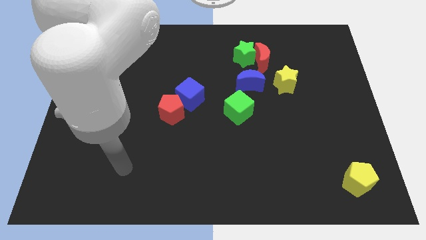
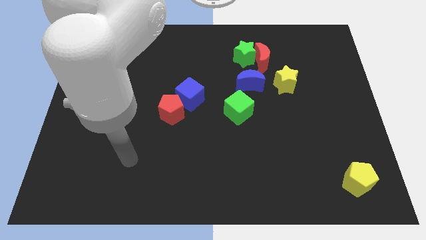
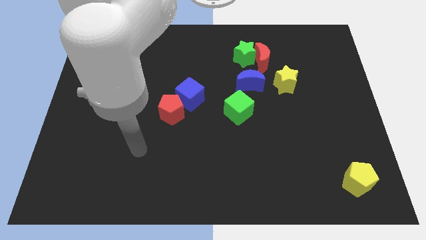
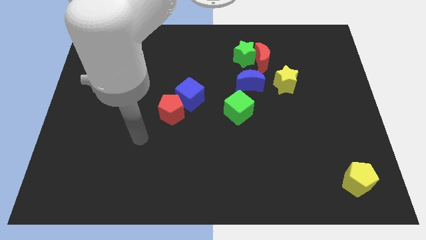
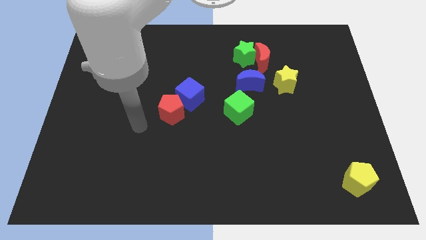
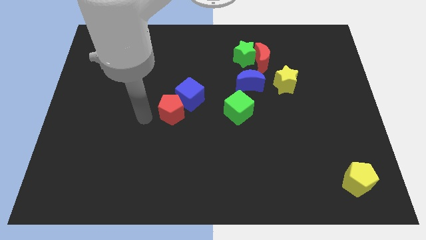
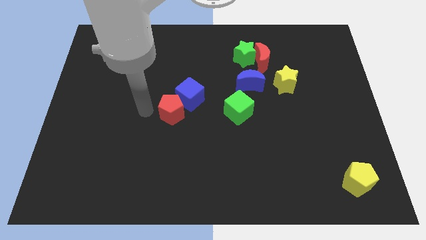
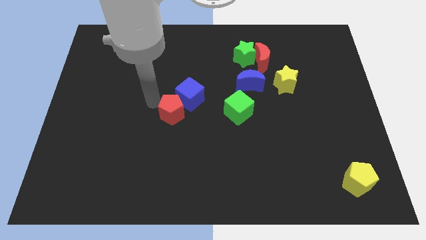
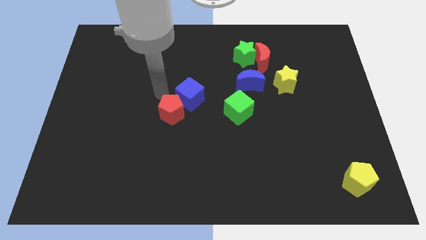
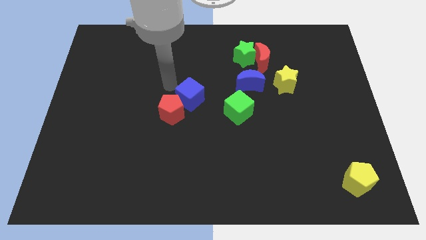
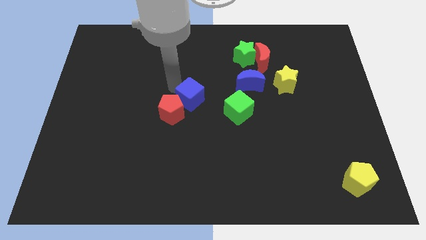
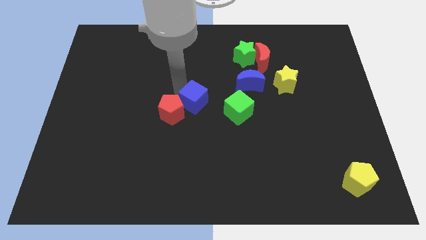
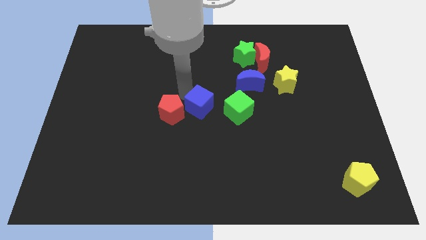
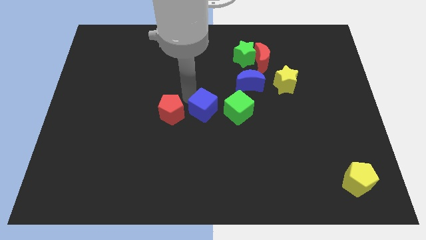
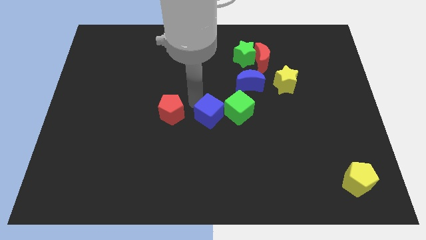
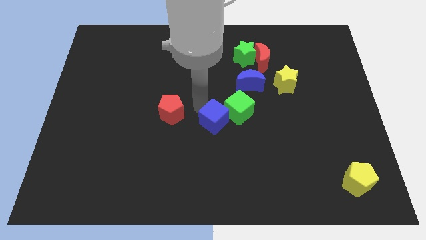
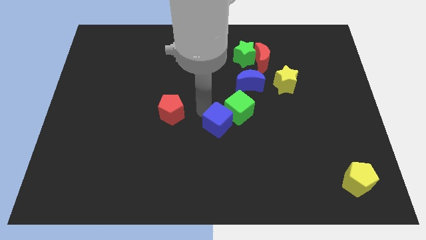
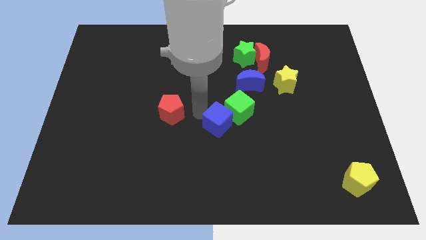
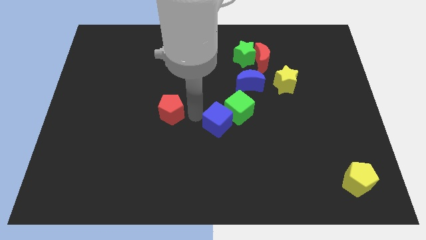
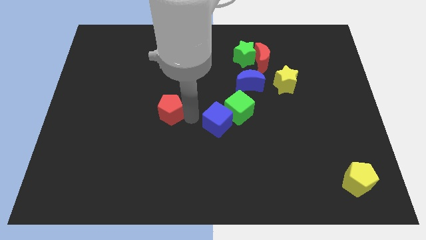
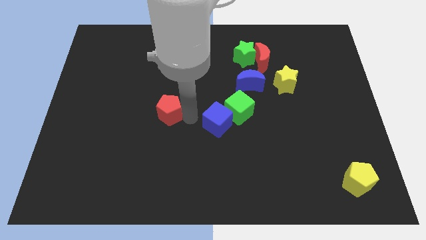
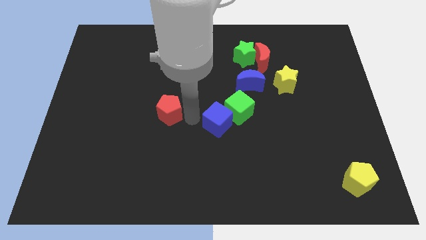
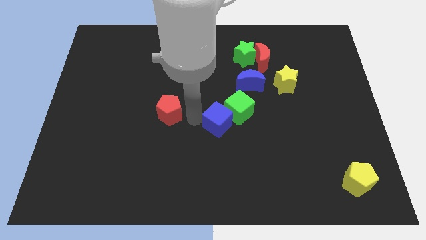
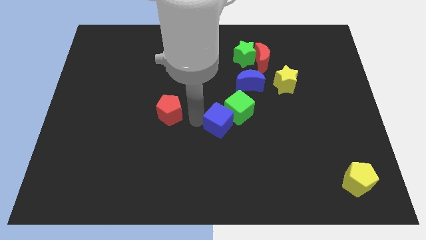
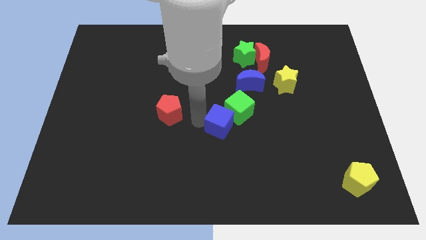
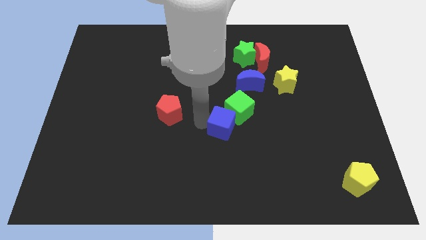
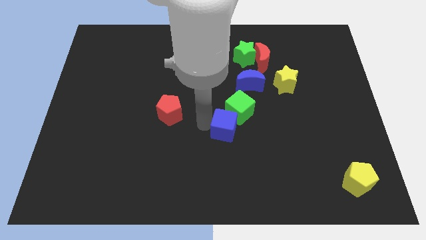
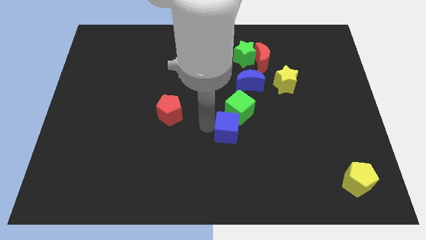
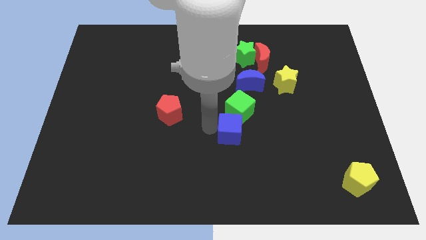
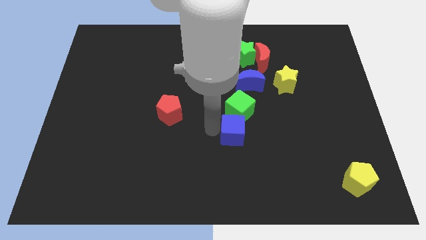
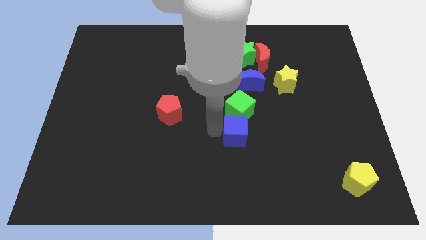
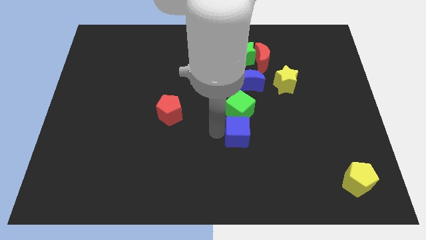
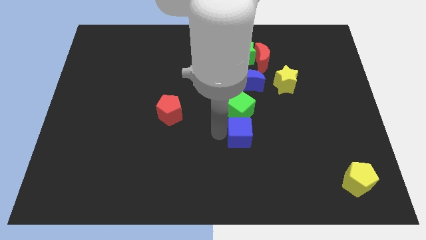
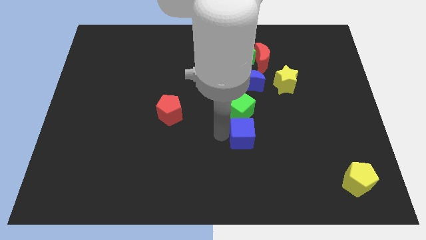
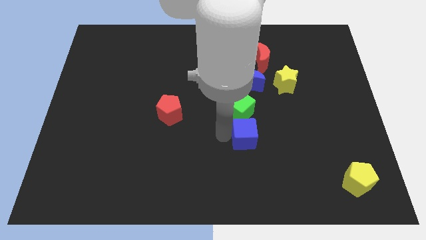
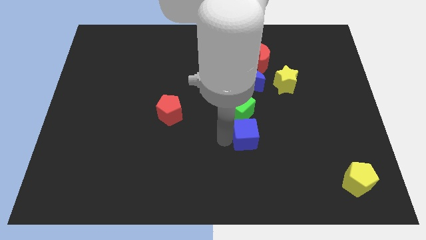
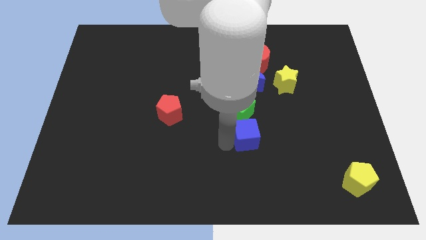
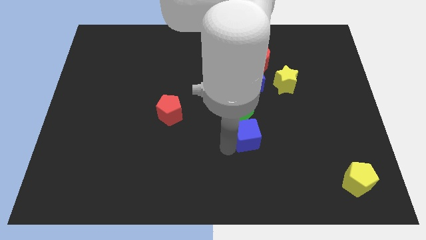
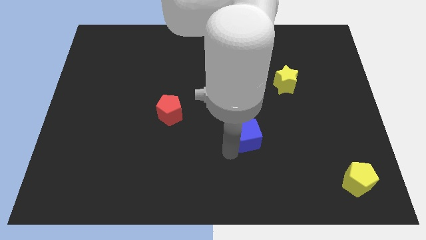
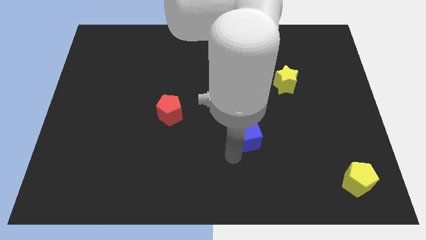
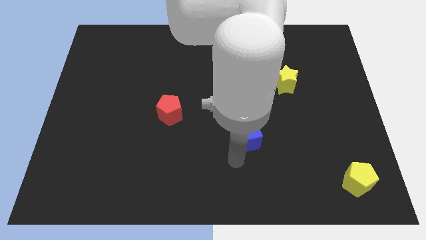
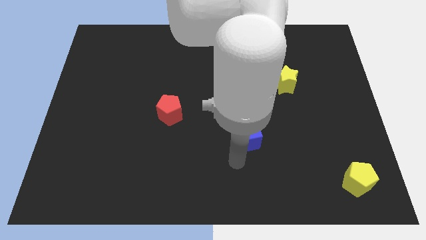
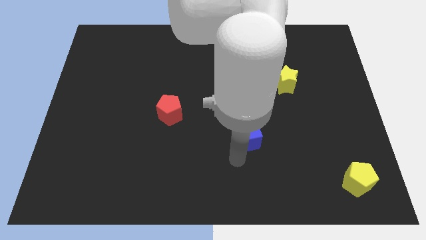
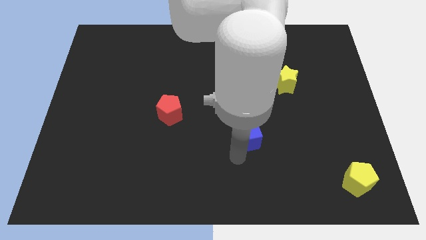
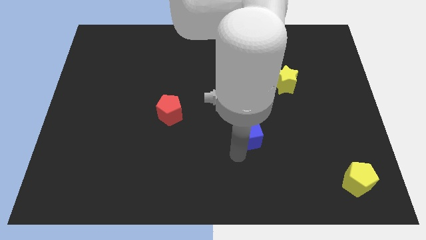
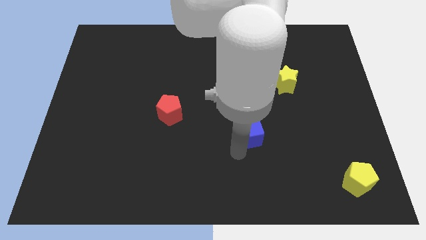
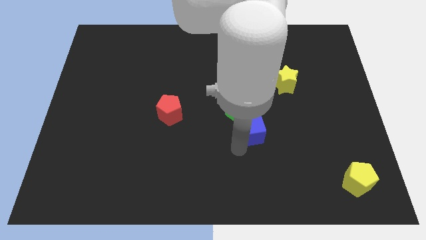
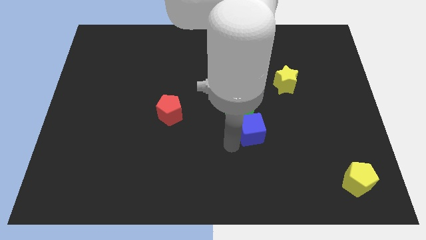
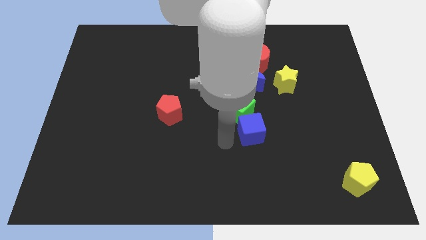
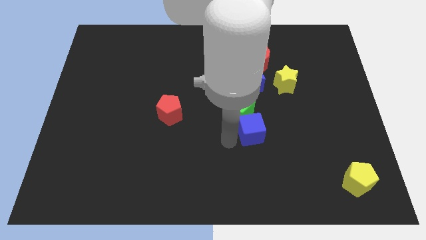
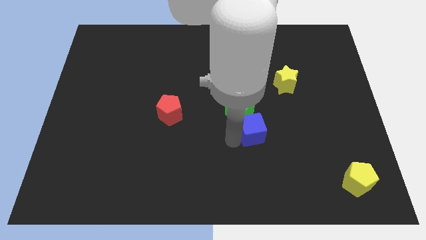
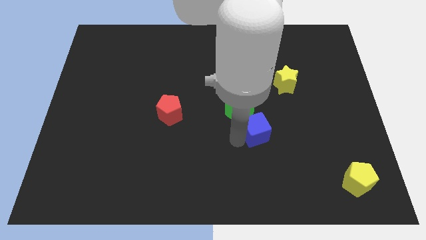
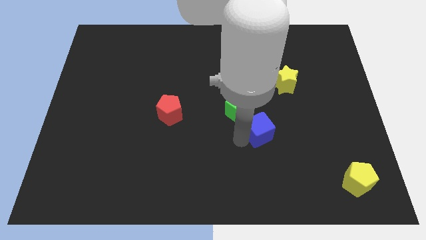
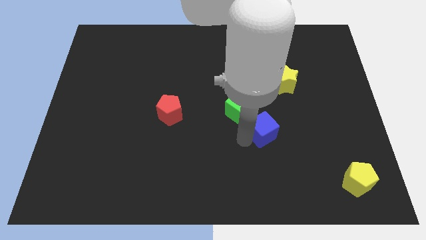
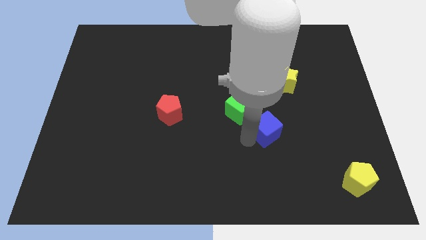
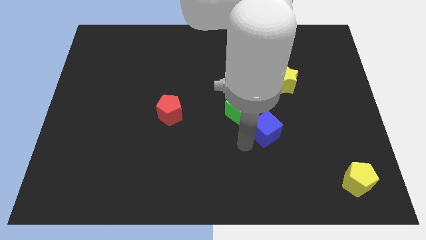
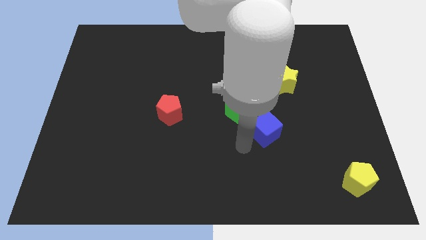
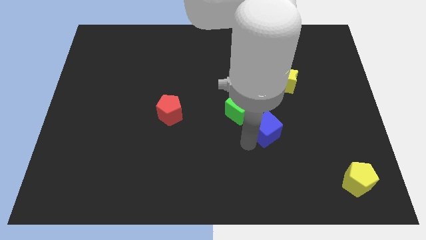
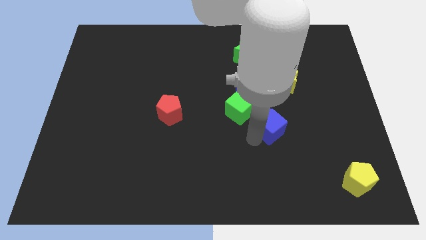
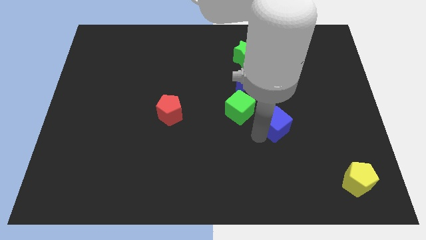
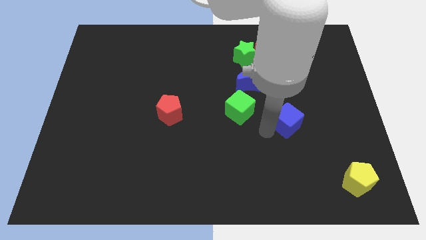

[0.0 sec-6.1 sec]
slide the blue cube to the right

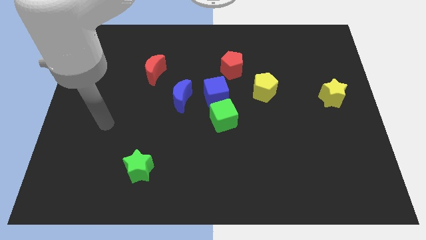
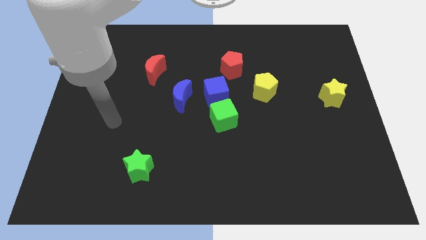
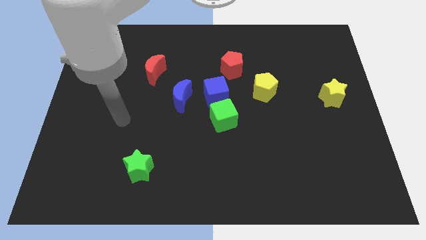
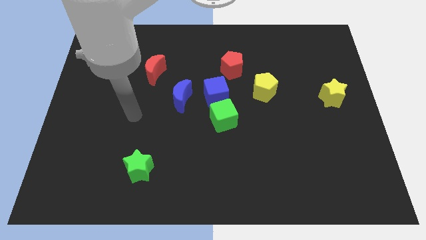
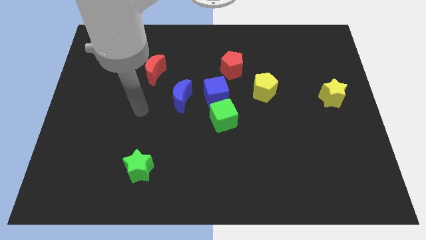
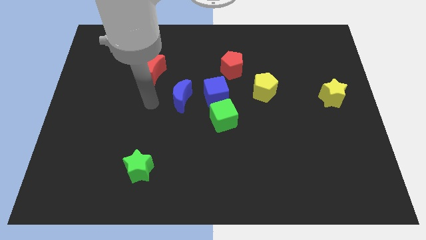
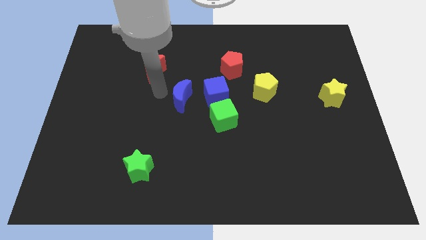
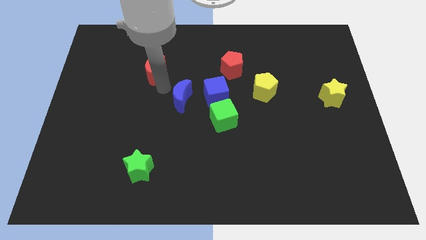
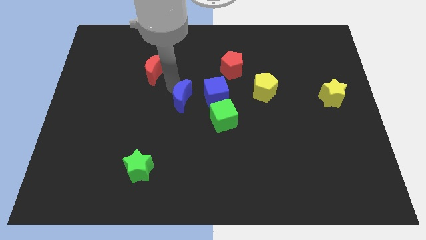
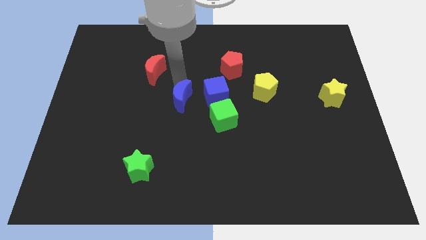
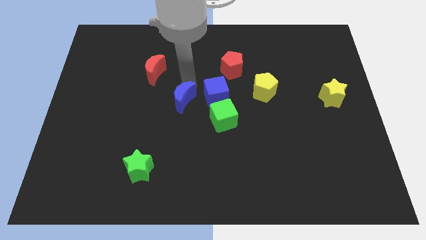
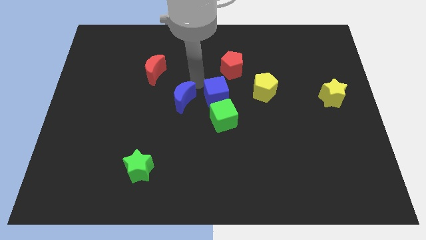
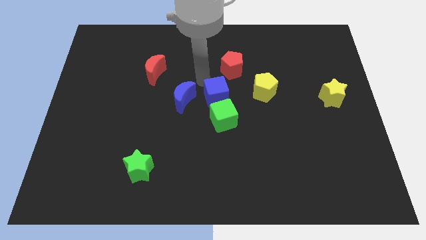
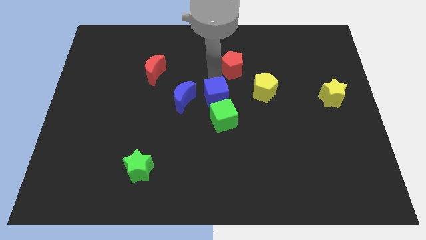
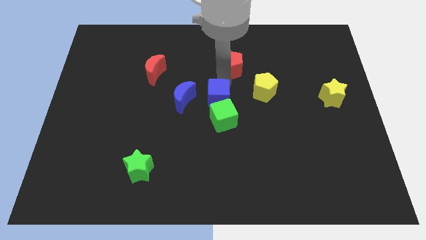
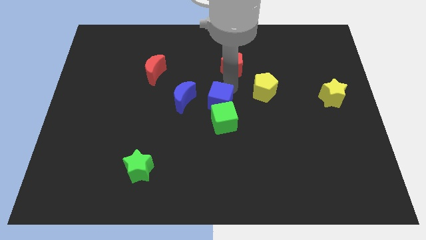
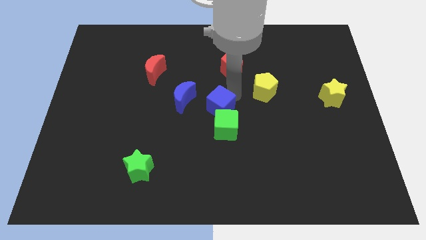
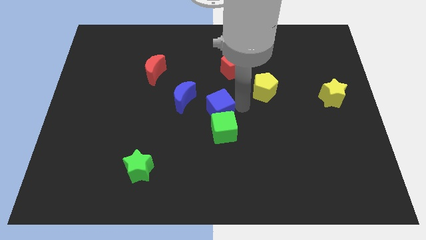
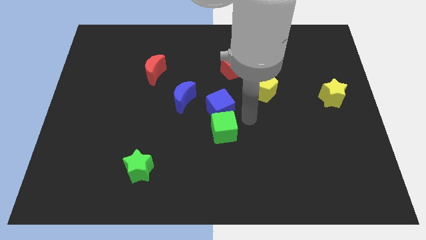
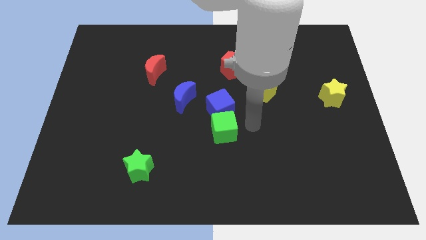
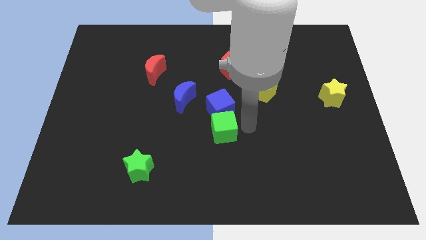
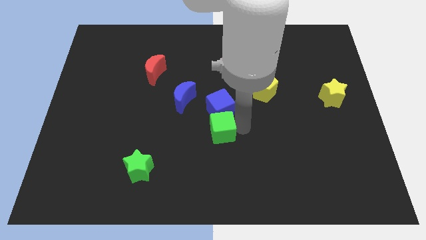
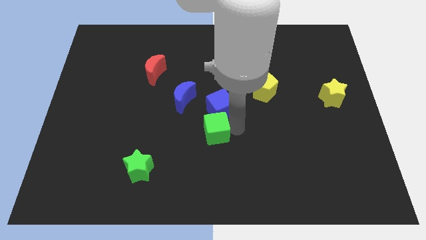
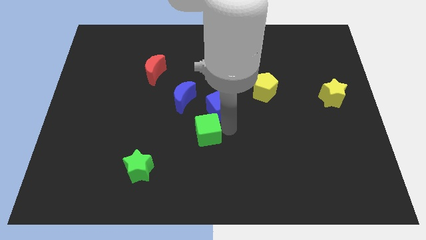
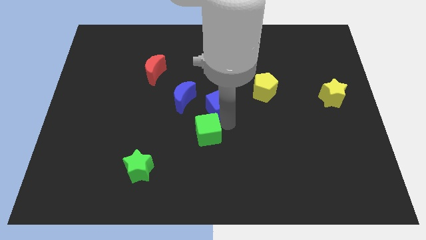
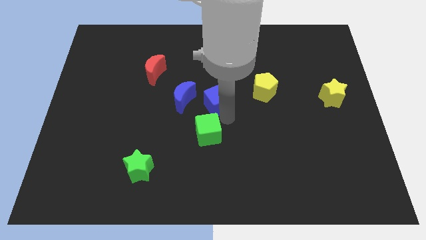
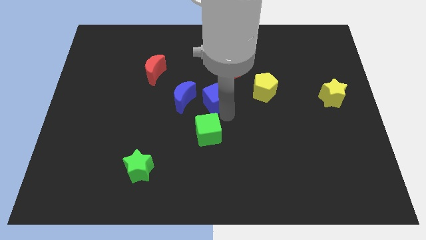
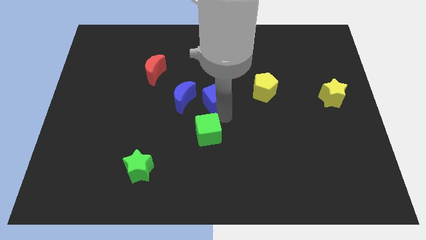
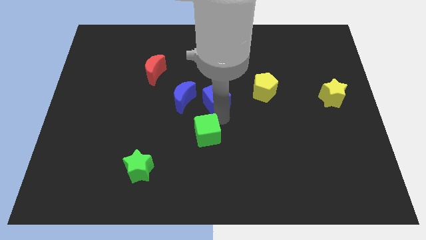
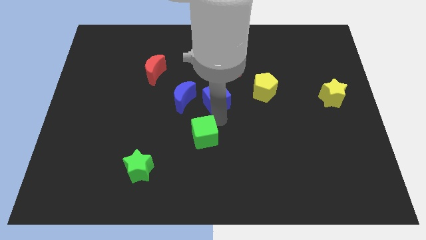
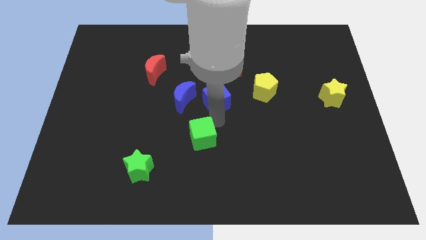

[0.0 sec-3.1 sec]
slide the green cube downwards and then left a little
